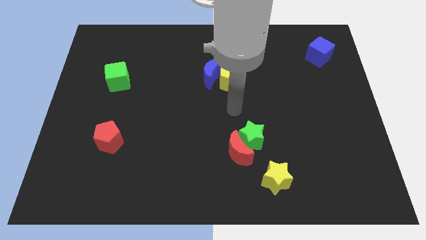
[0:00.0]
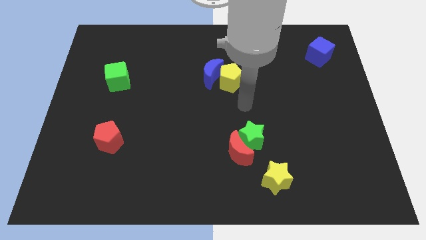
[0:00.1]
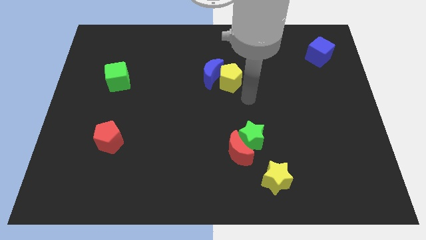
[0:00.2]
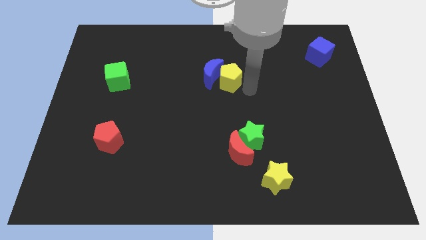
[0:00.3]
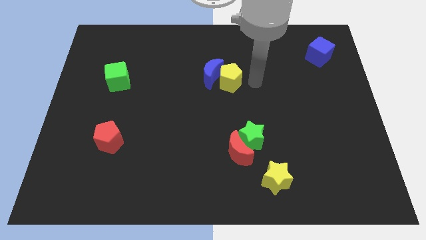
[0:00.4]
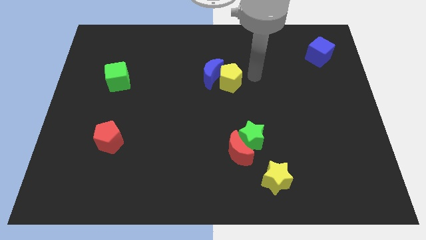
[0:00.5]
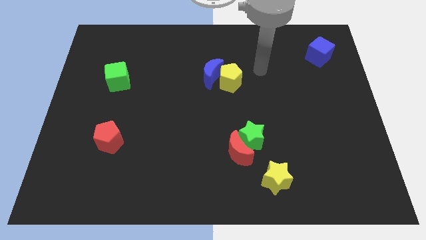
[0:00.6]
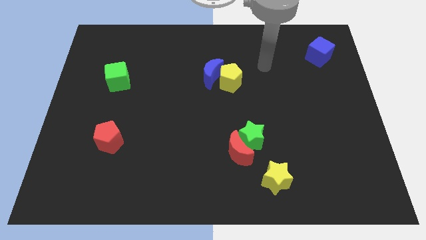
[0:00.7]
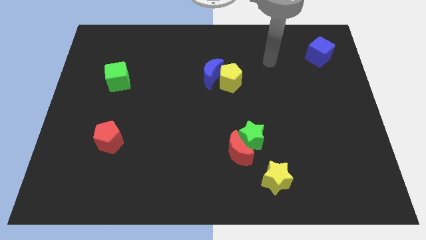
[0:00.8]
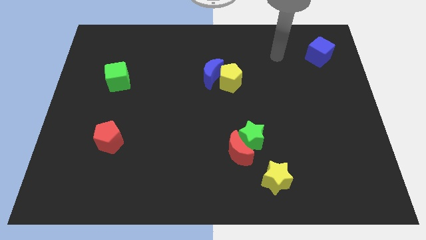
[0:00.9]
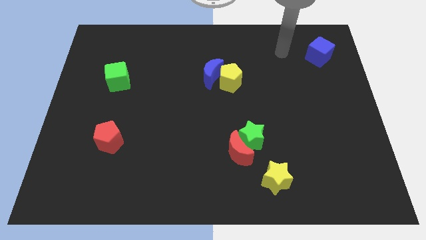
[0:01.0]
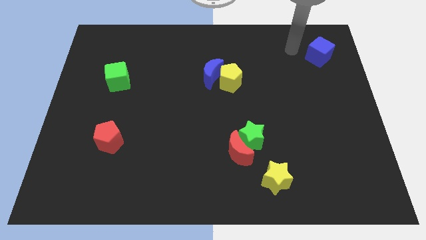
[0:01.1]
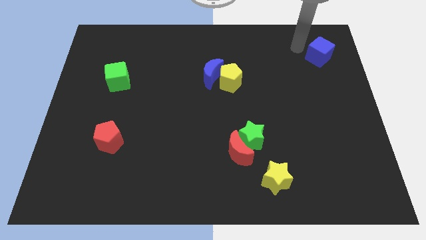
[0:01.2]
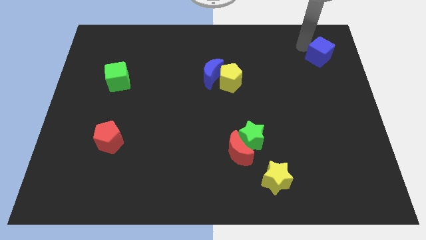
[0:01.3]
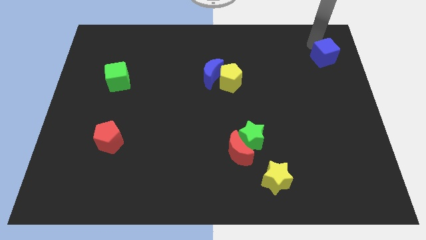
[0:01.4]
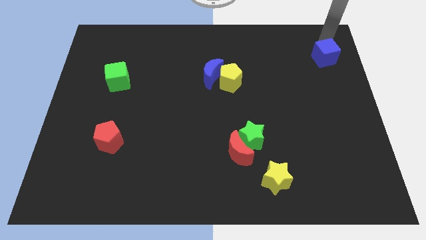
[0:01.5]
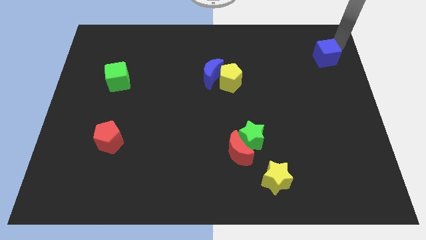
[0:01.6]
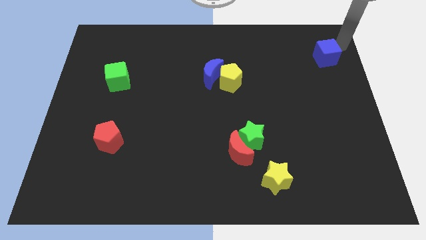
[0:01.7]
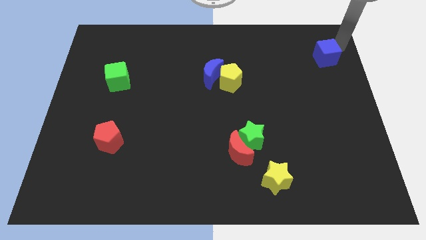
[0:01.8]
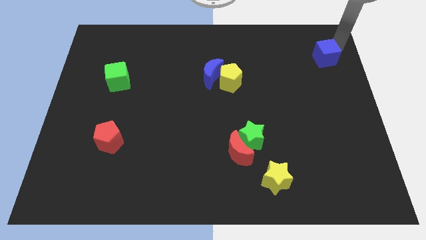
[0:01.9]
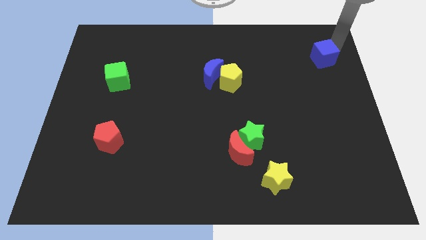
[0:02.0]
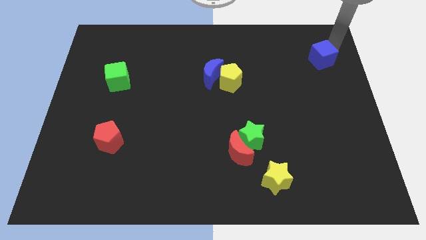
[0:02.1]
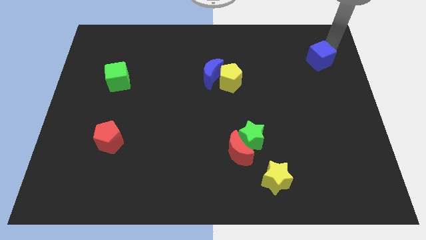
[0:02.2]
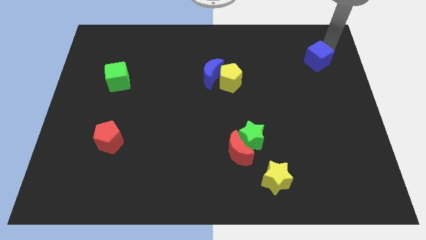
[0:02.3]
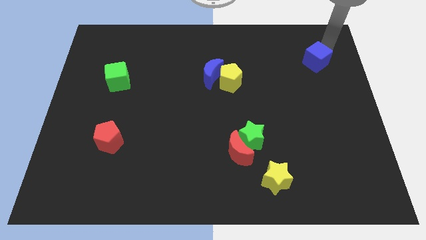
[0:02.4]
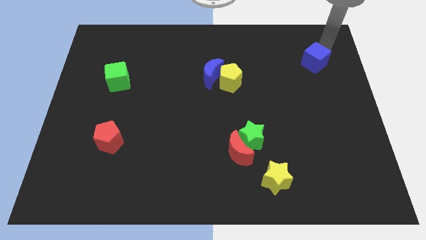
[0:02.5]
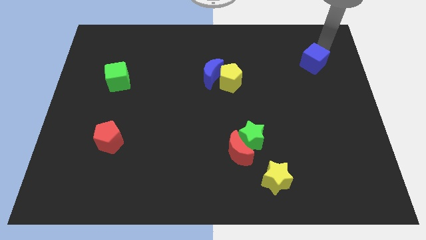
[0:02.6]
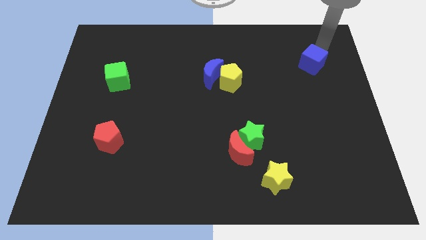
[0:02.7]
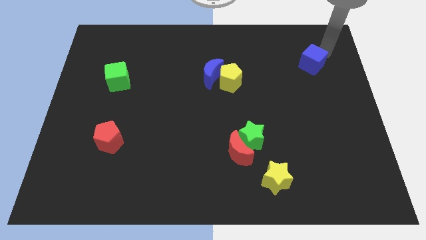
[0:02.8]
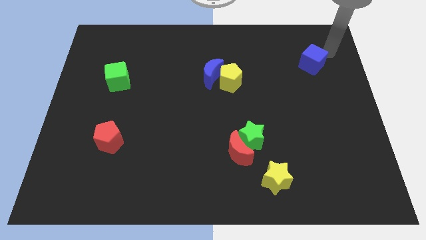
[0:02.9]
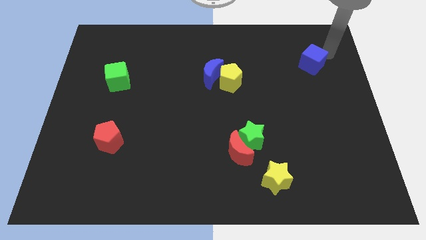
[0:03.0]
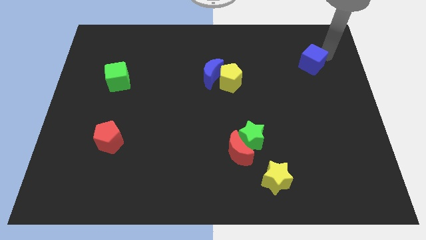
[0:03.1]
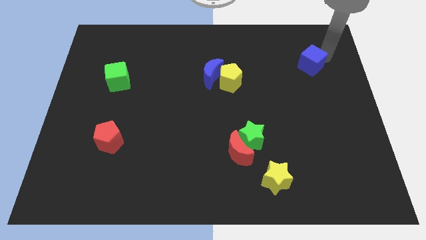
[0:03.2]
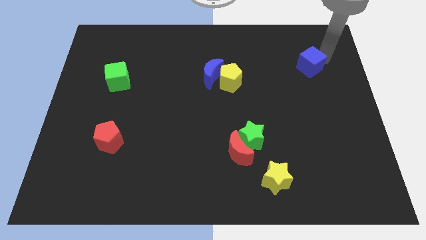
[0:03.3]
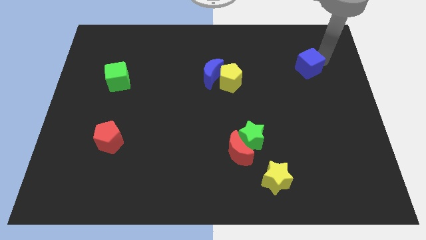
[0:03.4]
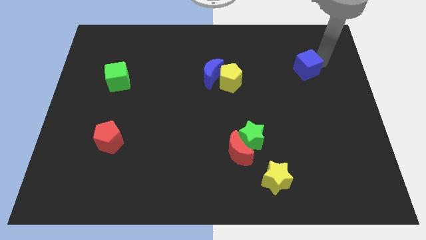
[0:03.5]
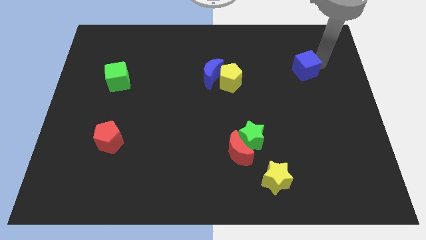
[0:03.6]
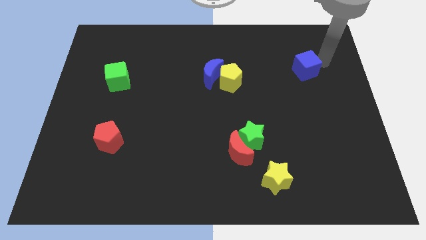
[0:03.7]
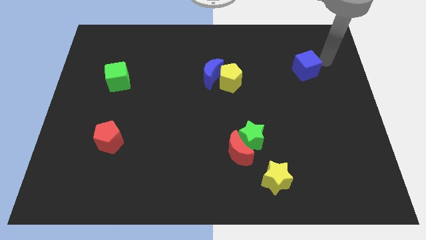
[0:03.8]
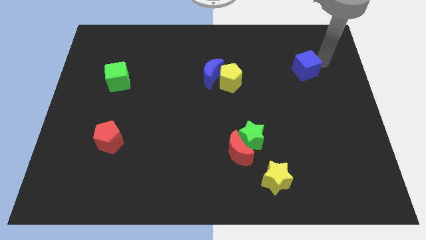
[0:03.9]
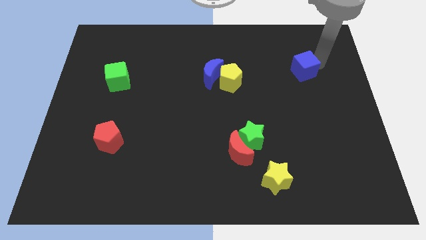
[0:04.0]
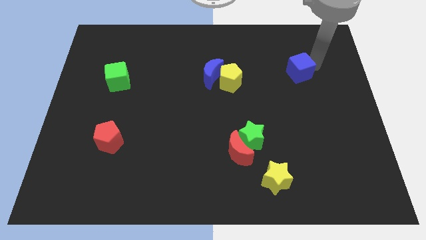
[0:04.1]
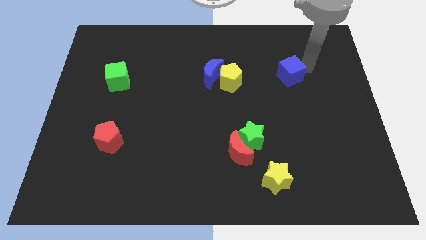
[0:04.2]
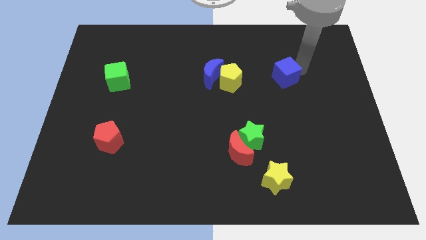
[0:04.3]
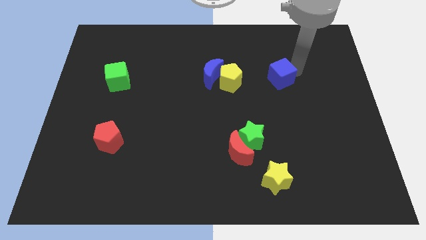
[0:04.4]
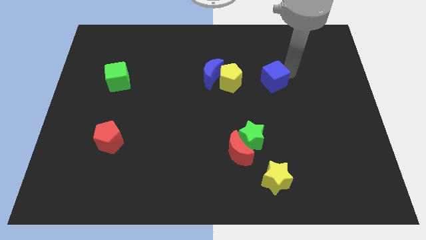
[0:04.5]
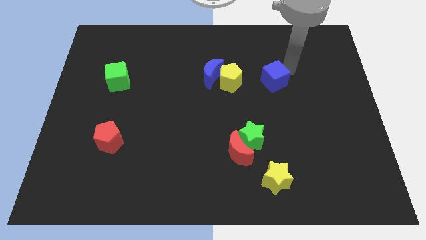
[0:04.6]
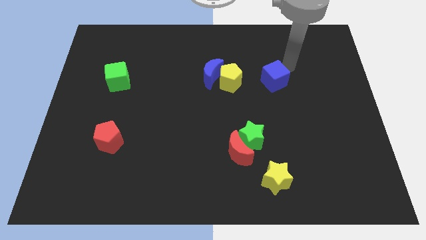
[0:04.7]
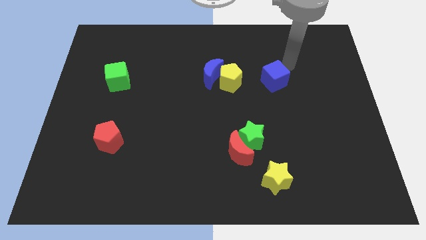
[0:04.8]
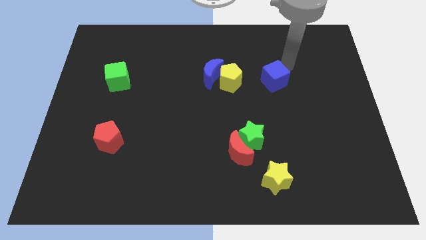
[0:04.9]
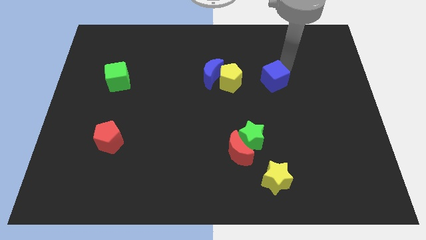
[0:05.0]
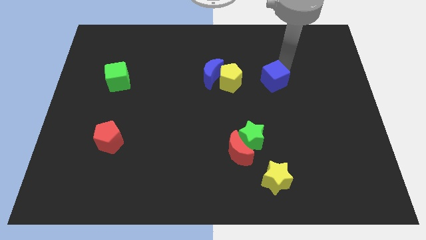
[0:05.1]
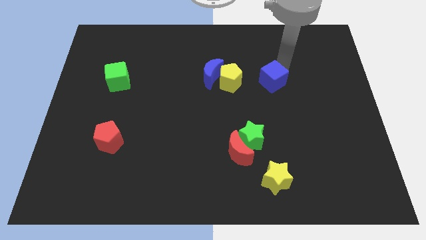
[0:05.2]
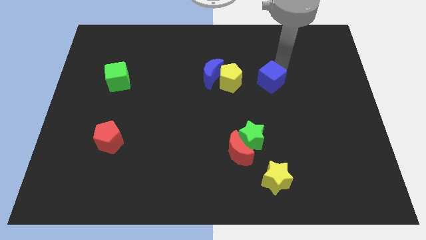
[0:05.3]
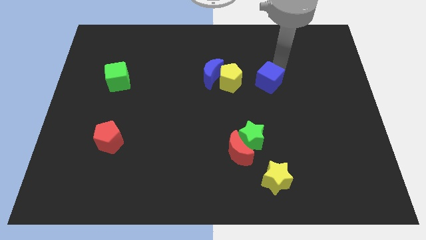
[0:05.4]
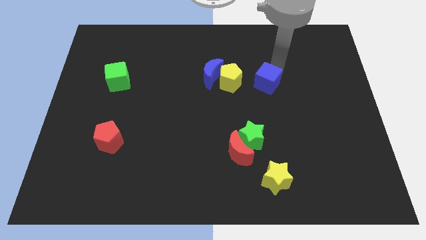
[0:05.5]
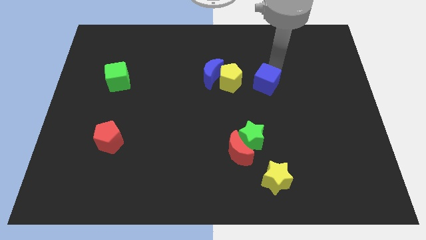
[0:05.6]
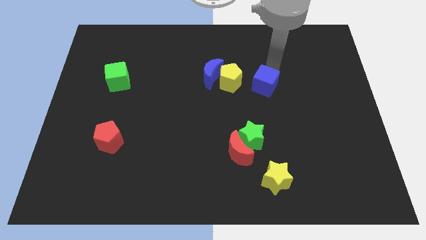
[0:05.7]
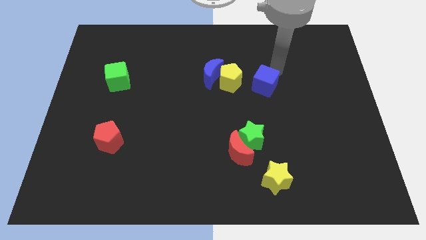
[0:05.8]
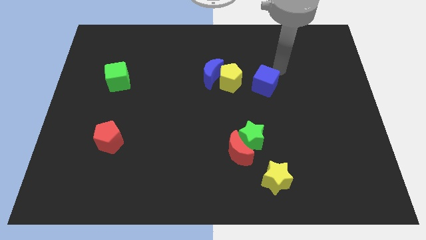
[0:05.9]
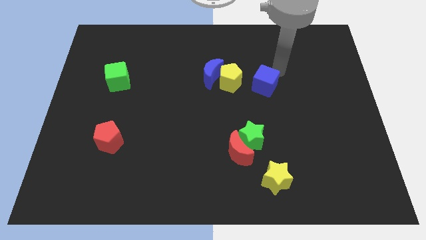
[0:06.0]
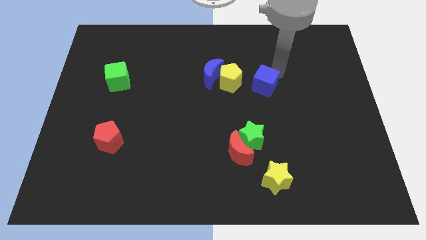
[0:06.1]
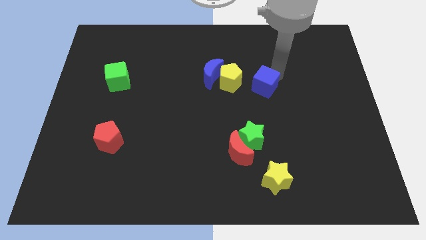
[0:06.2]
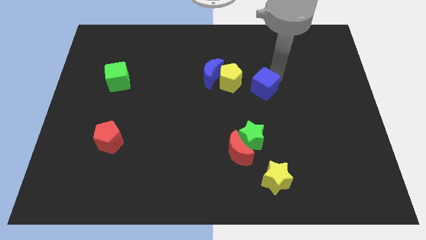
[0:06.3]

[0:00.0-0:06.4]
slide the blue cube to the bottom right side of the yellow pentagon

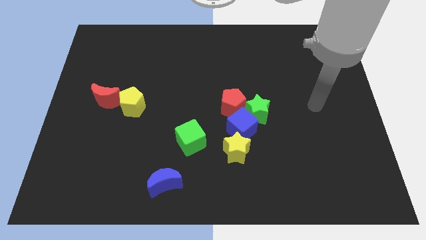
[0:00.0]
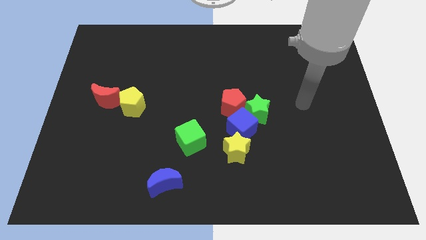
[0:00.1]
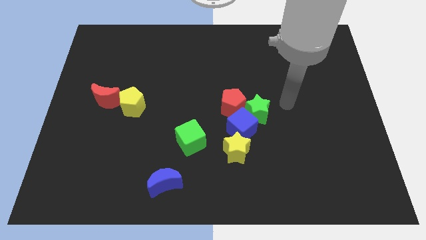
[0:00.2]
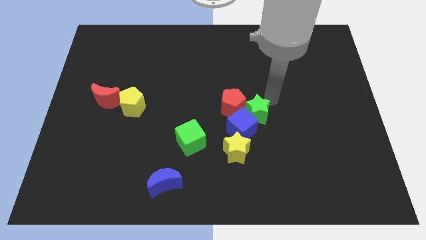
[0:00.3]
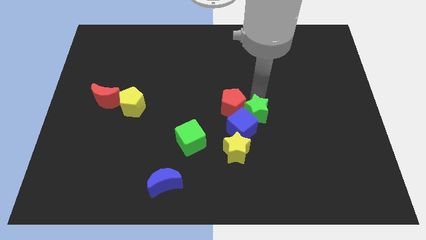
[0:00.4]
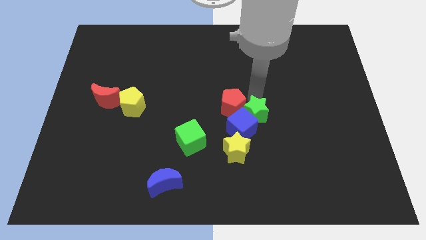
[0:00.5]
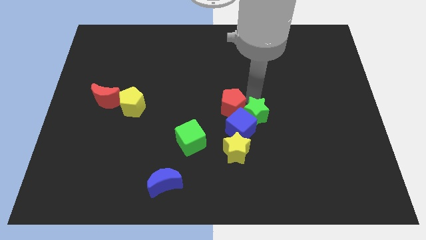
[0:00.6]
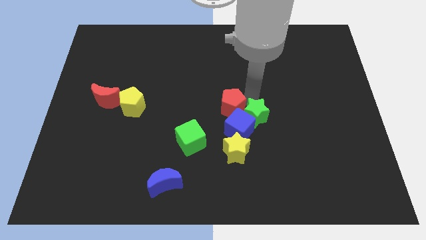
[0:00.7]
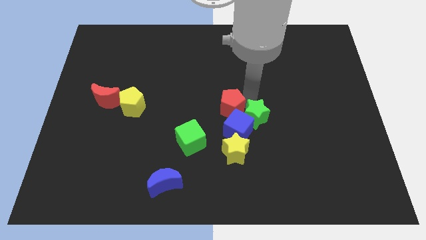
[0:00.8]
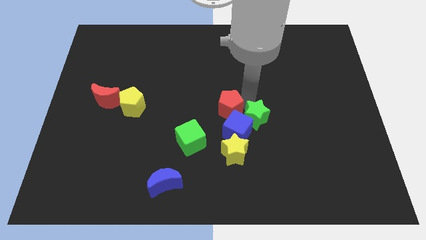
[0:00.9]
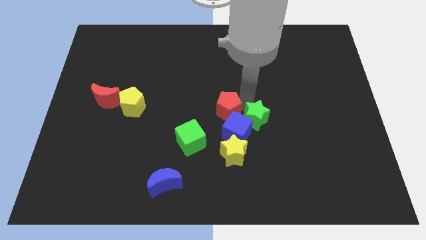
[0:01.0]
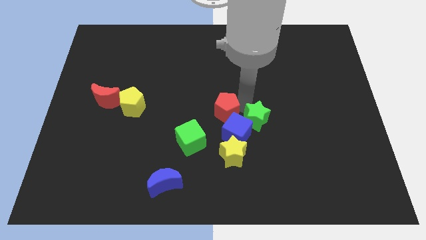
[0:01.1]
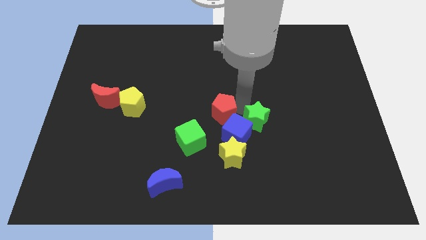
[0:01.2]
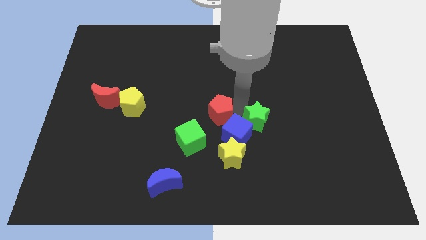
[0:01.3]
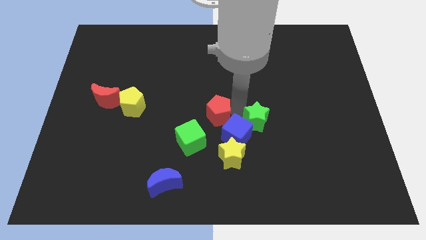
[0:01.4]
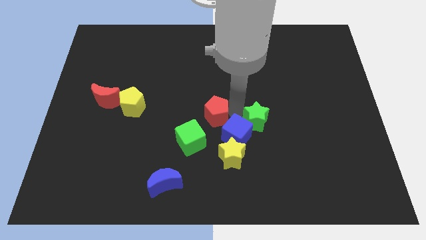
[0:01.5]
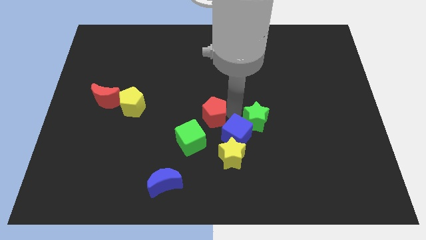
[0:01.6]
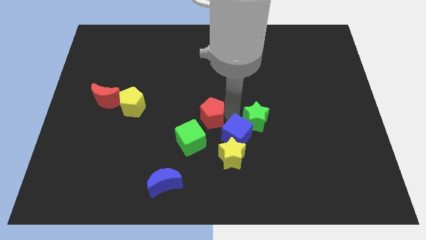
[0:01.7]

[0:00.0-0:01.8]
put the red pentagon left of the blue cube
